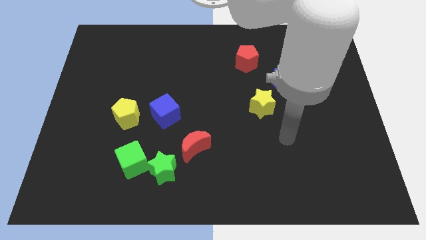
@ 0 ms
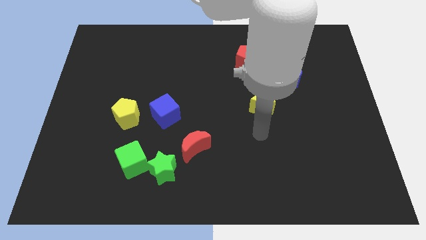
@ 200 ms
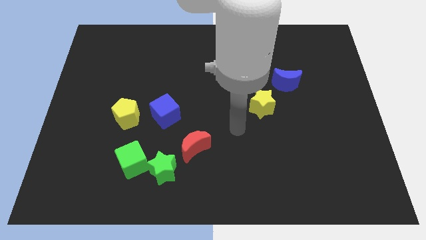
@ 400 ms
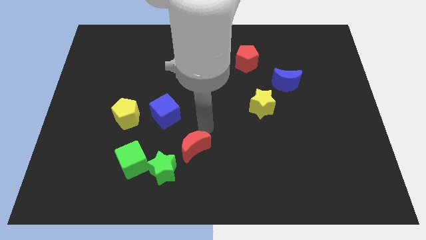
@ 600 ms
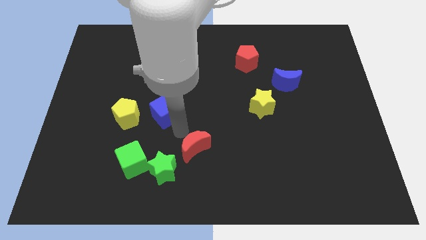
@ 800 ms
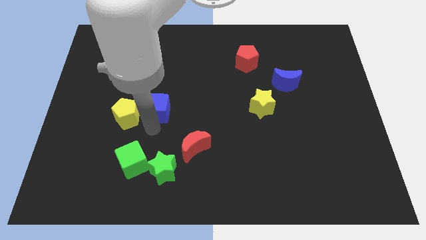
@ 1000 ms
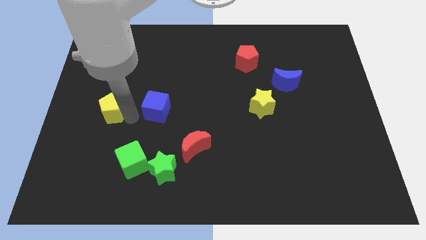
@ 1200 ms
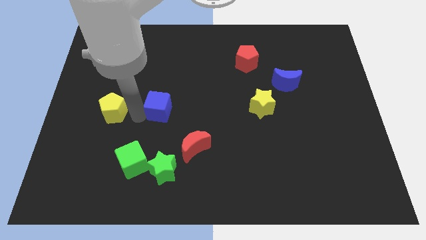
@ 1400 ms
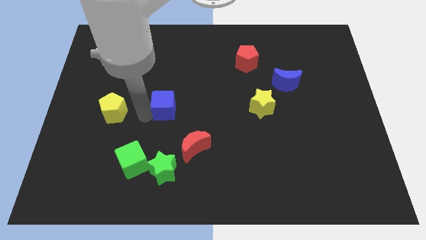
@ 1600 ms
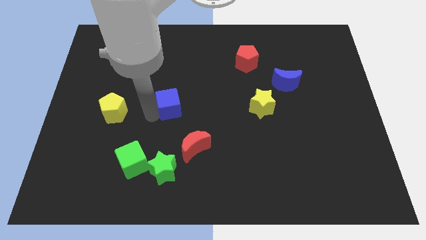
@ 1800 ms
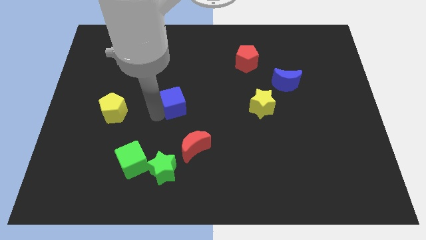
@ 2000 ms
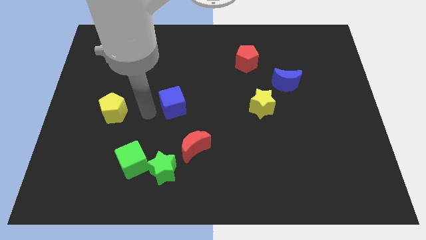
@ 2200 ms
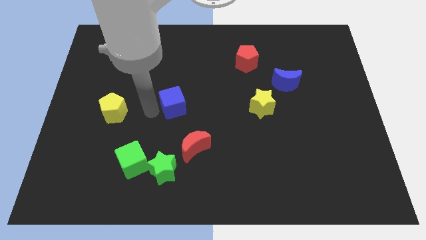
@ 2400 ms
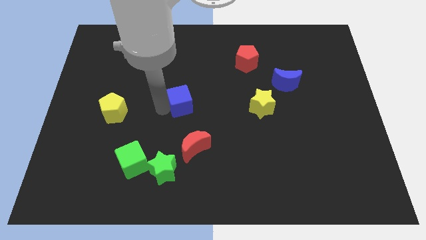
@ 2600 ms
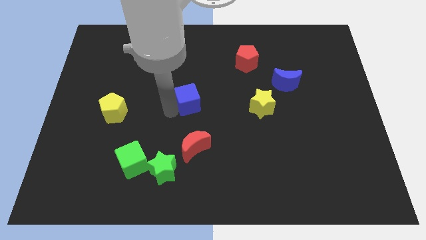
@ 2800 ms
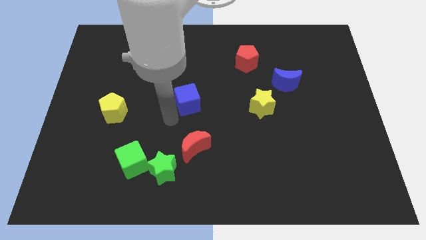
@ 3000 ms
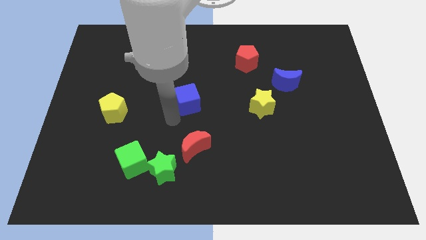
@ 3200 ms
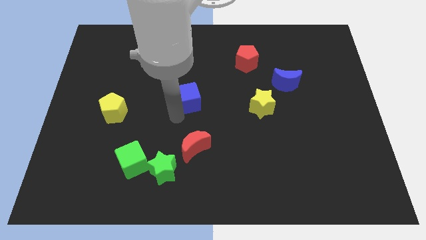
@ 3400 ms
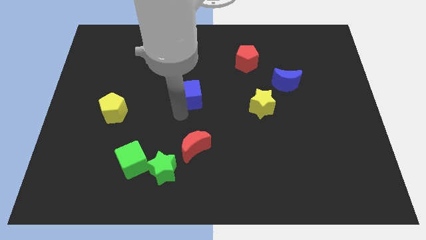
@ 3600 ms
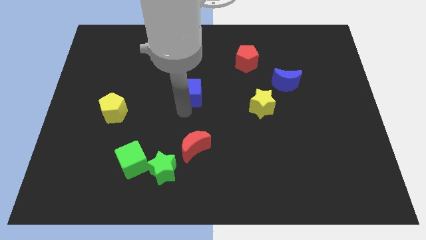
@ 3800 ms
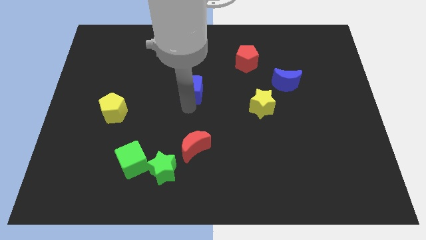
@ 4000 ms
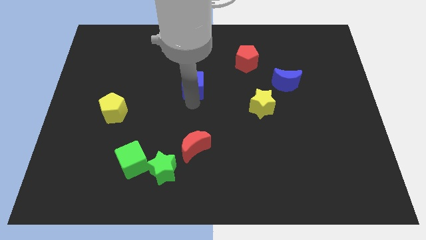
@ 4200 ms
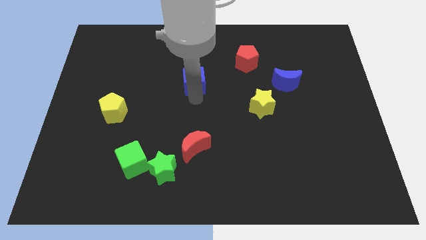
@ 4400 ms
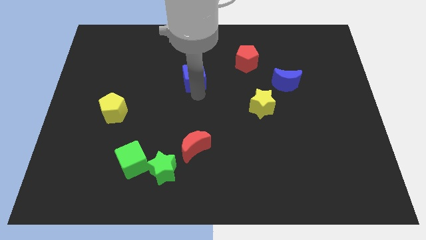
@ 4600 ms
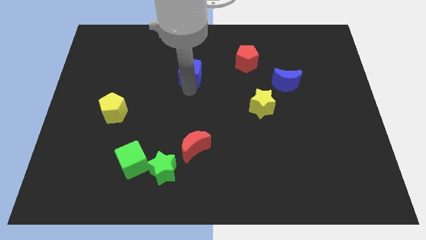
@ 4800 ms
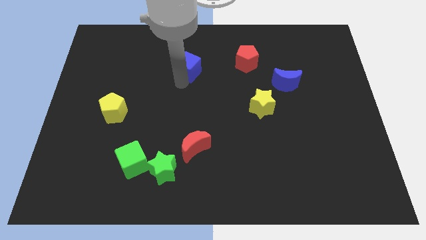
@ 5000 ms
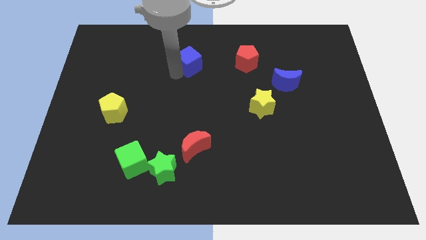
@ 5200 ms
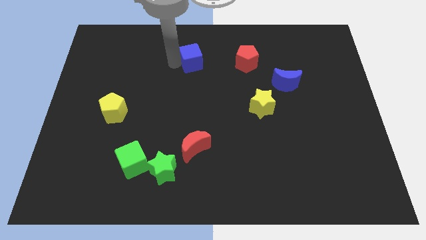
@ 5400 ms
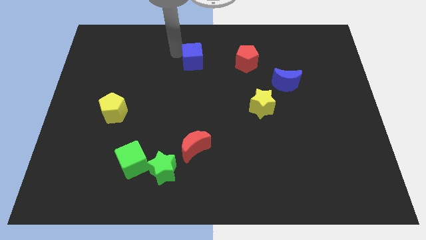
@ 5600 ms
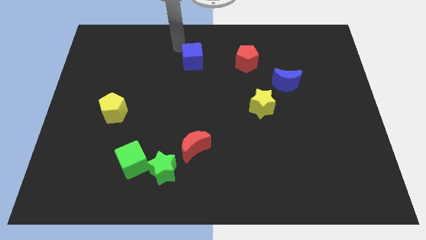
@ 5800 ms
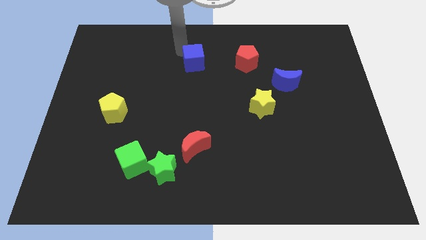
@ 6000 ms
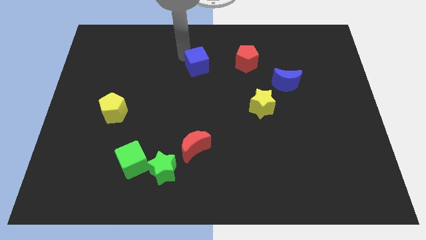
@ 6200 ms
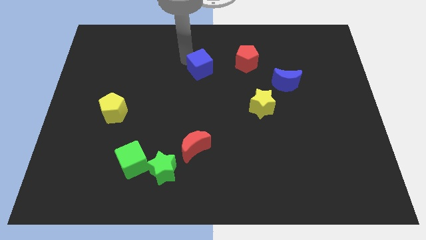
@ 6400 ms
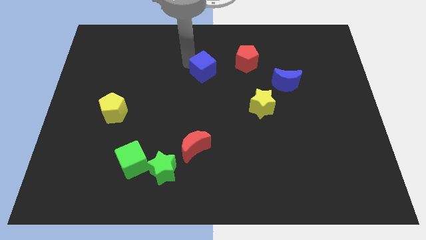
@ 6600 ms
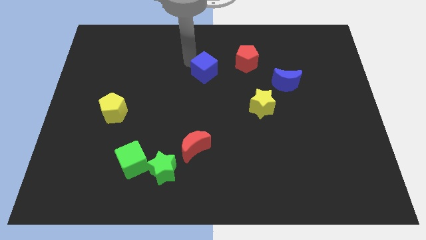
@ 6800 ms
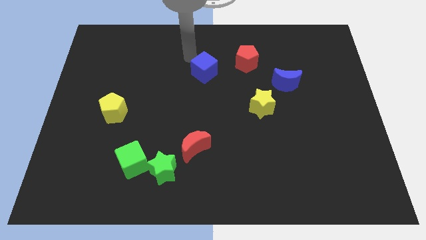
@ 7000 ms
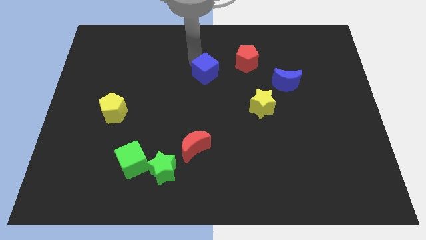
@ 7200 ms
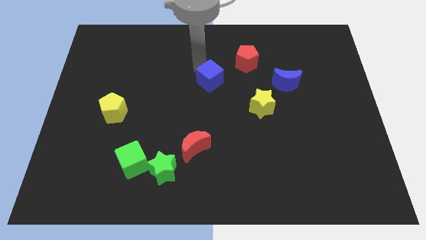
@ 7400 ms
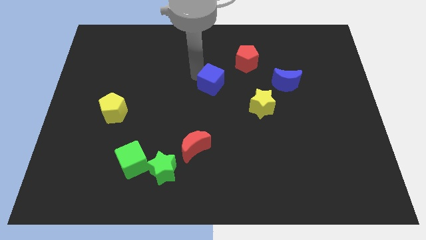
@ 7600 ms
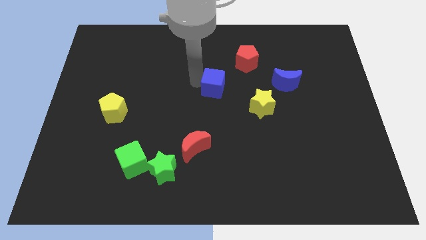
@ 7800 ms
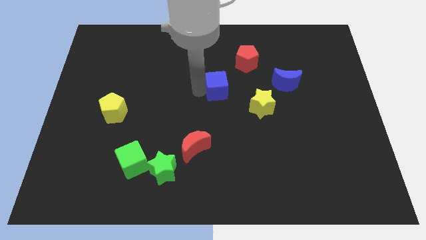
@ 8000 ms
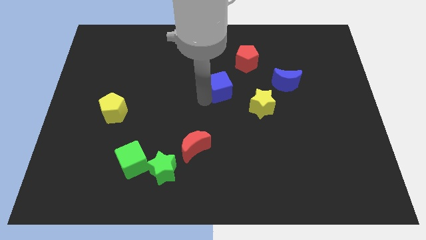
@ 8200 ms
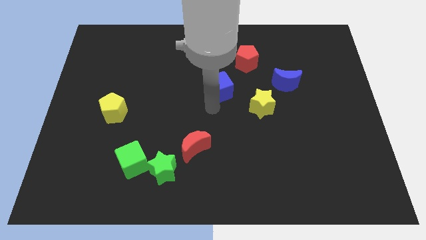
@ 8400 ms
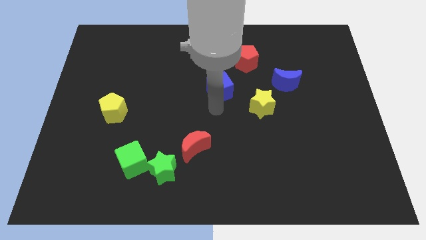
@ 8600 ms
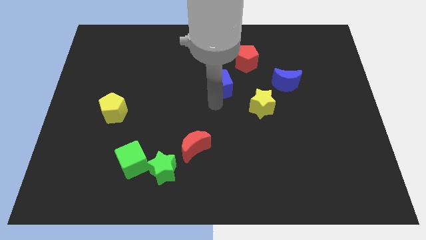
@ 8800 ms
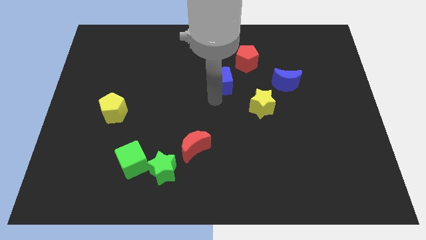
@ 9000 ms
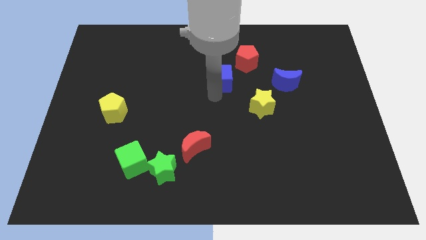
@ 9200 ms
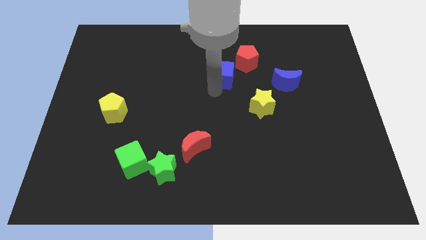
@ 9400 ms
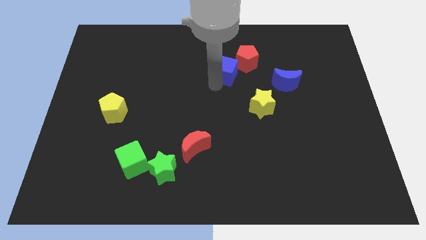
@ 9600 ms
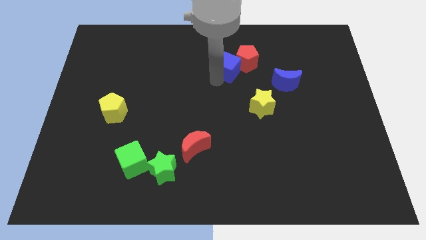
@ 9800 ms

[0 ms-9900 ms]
push the blue cube to the red pentagon

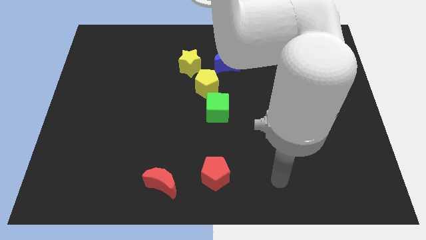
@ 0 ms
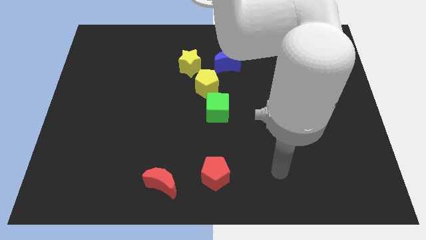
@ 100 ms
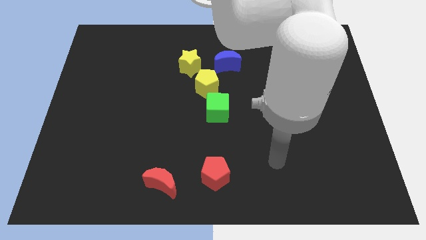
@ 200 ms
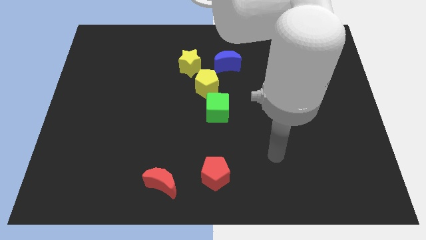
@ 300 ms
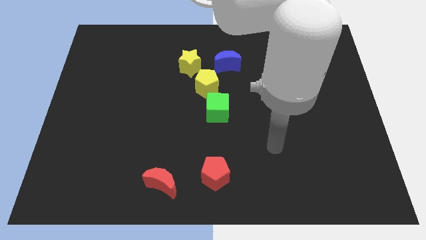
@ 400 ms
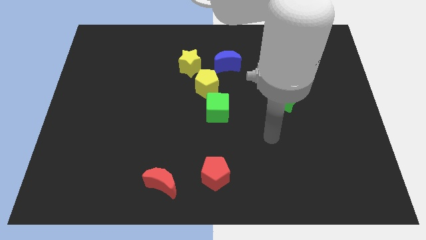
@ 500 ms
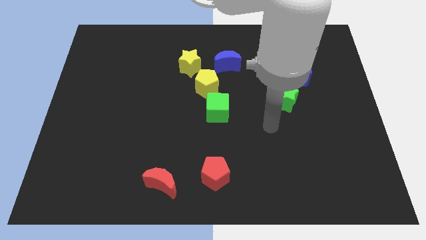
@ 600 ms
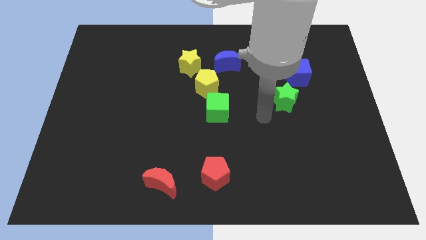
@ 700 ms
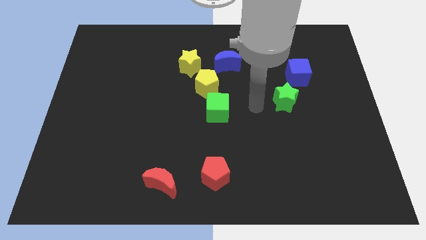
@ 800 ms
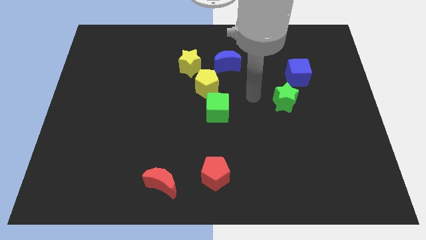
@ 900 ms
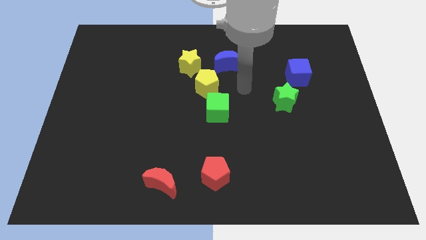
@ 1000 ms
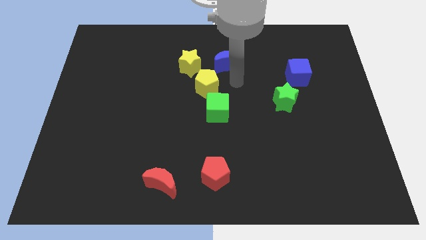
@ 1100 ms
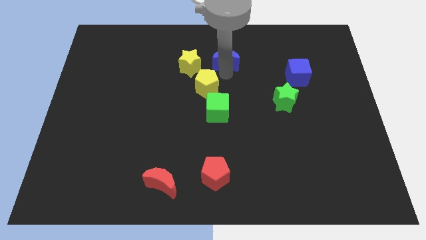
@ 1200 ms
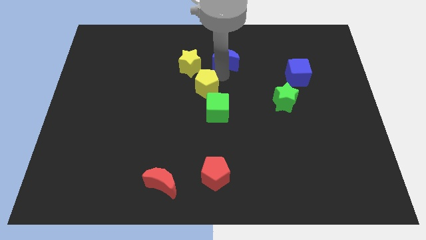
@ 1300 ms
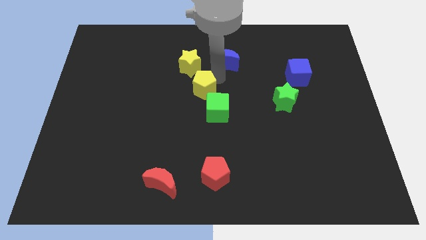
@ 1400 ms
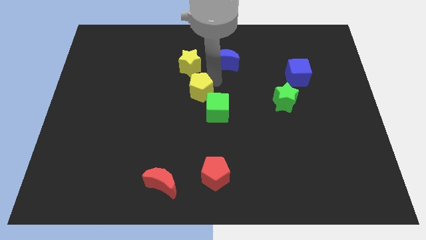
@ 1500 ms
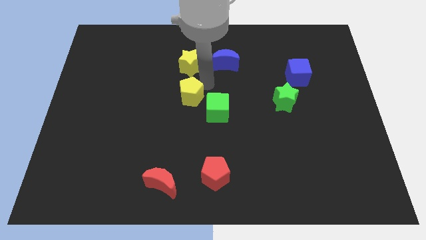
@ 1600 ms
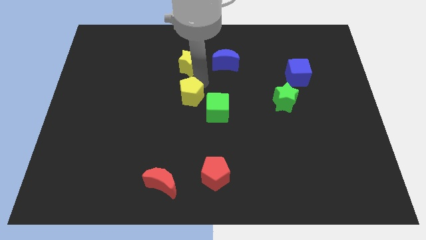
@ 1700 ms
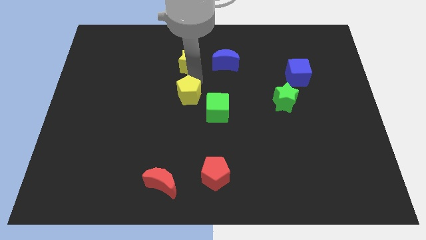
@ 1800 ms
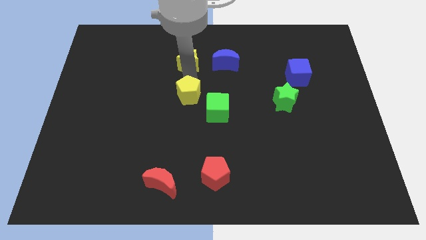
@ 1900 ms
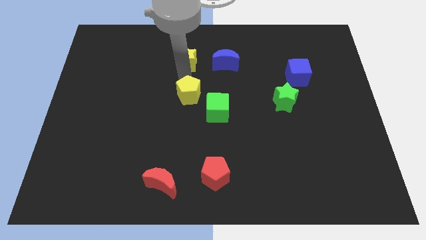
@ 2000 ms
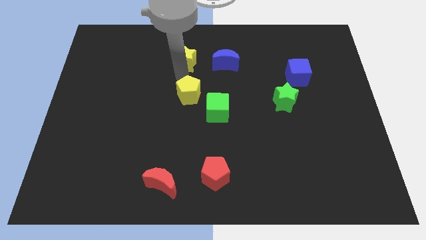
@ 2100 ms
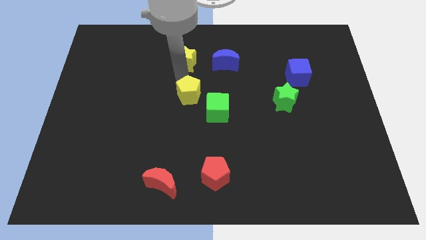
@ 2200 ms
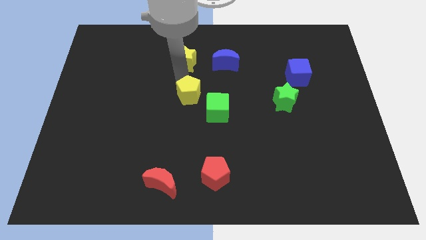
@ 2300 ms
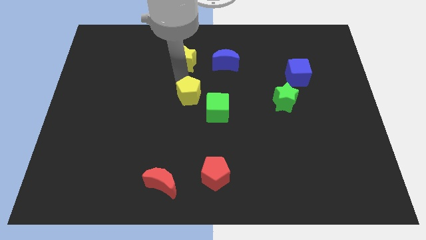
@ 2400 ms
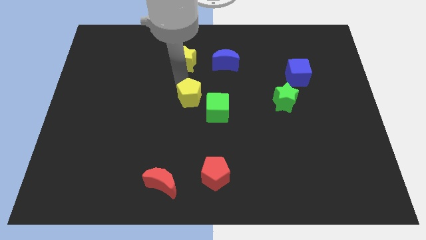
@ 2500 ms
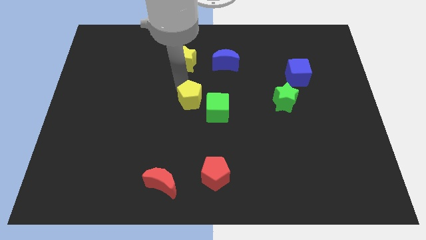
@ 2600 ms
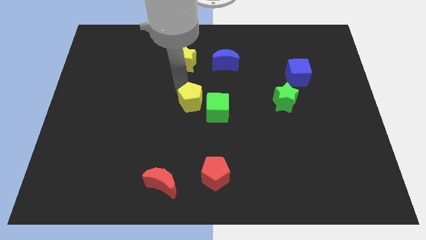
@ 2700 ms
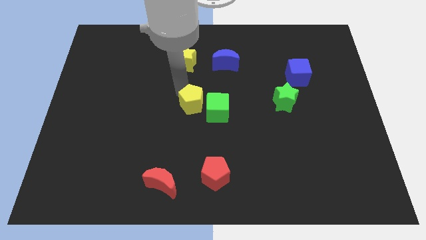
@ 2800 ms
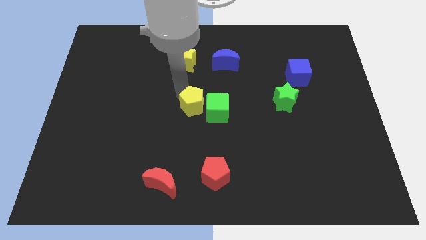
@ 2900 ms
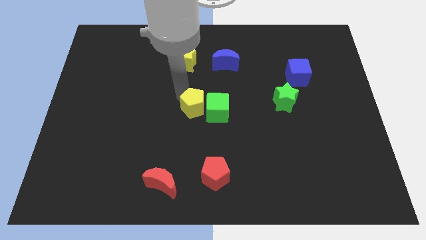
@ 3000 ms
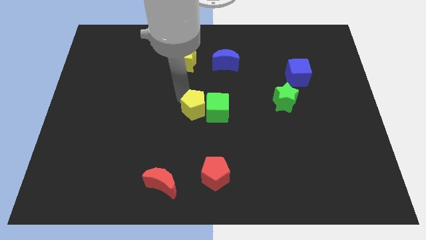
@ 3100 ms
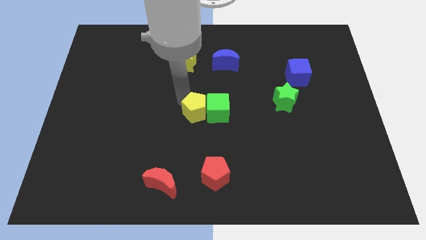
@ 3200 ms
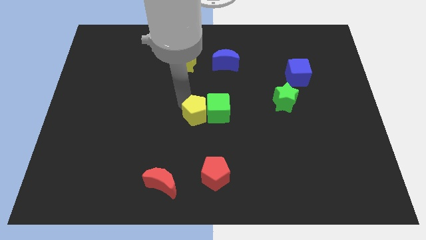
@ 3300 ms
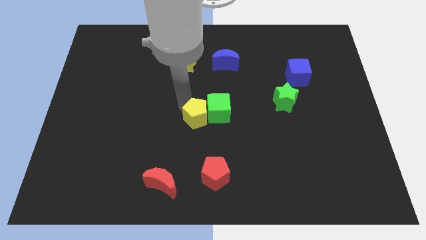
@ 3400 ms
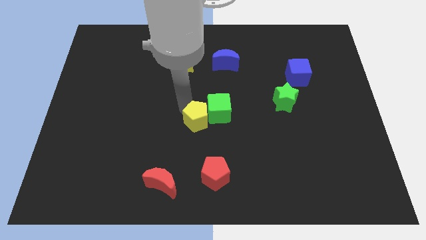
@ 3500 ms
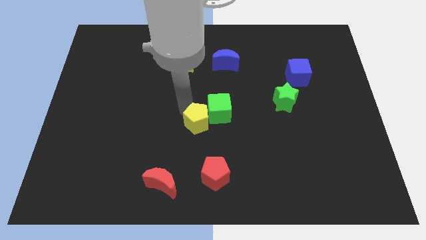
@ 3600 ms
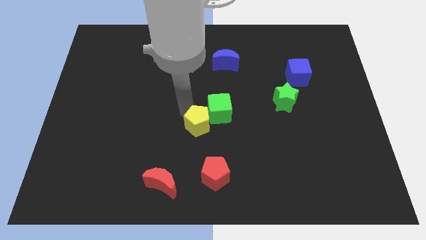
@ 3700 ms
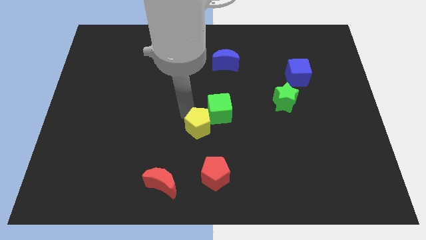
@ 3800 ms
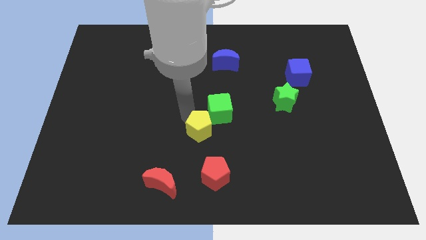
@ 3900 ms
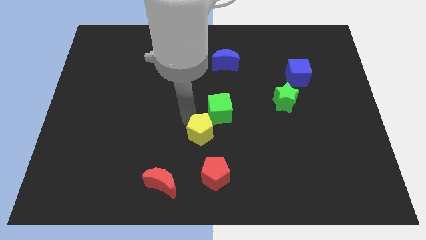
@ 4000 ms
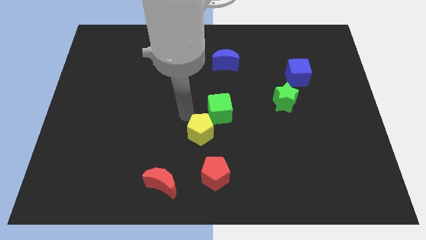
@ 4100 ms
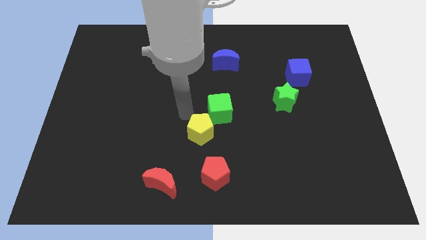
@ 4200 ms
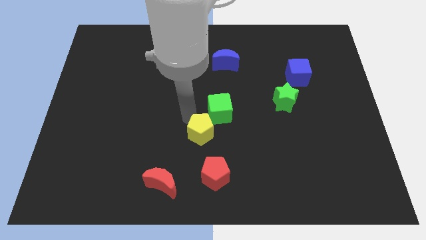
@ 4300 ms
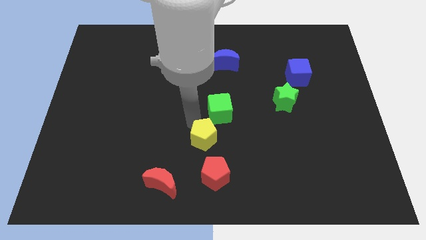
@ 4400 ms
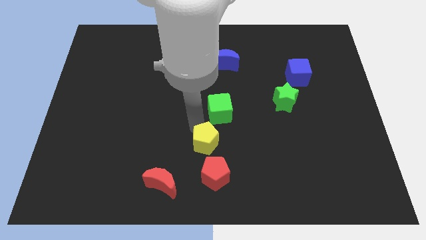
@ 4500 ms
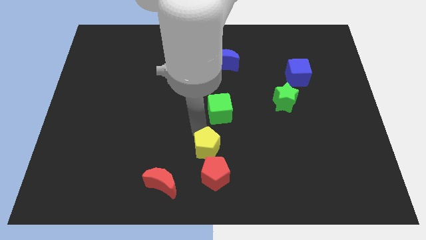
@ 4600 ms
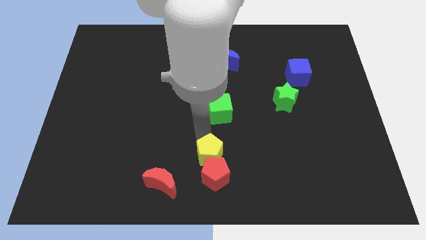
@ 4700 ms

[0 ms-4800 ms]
slide the yellow pentagon to the red pentagon
